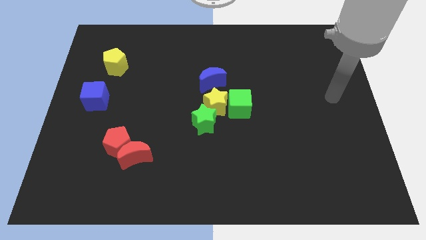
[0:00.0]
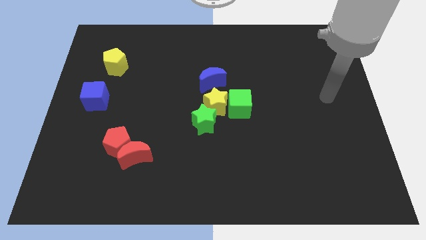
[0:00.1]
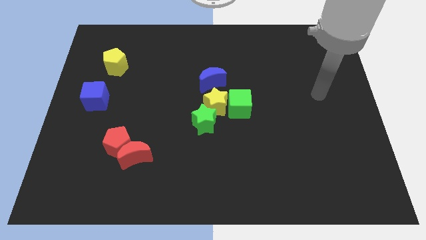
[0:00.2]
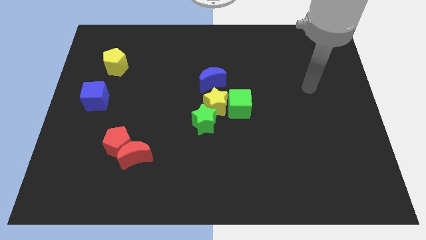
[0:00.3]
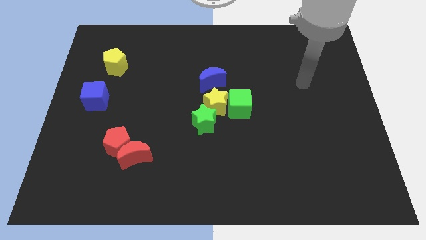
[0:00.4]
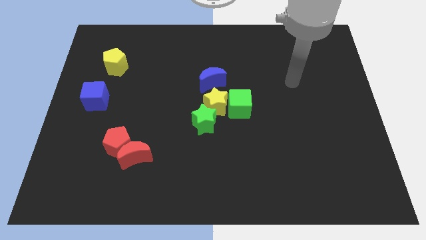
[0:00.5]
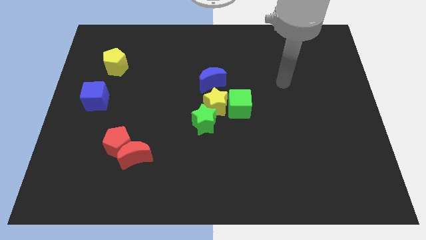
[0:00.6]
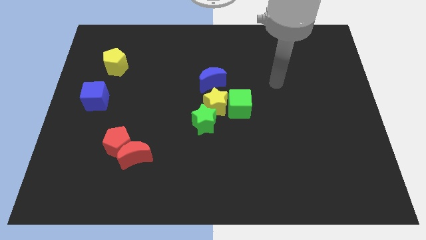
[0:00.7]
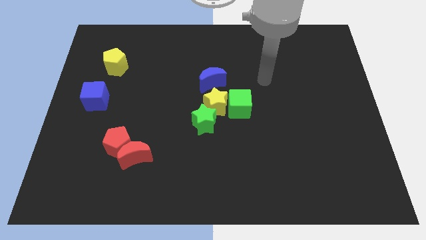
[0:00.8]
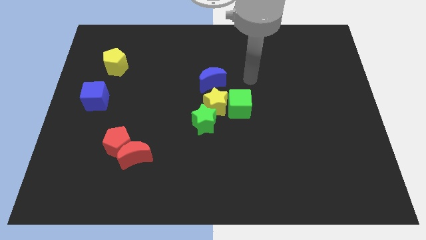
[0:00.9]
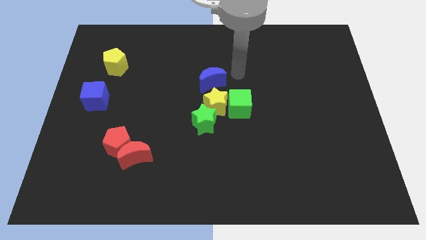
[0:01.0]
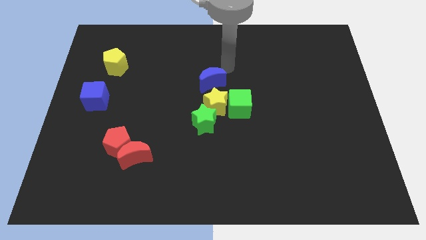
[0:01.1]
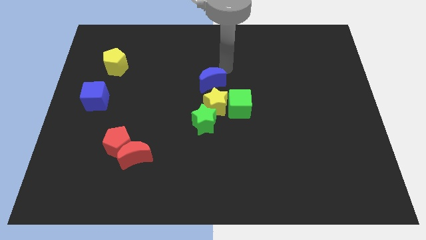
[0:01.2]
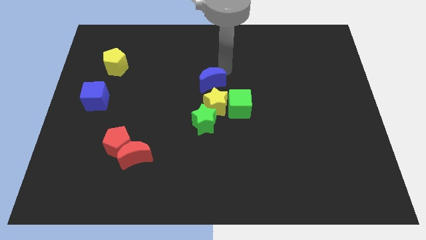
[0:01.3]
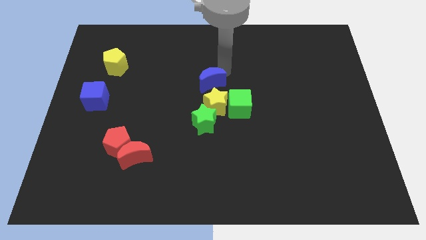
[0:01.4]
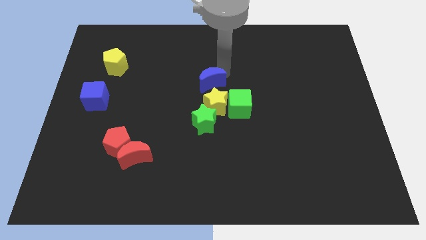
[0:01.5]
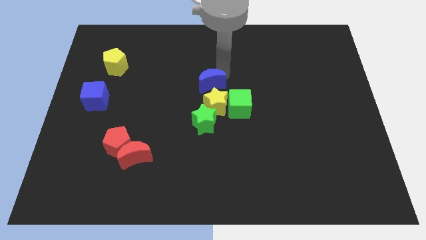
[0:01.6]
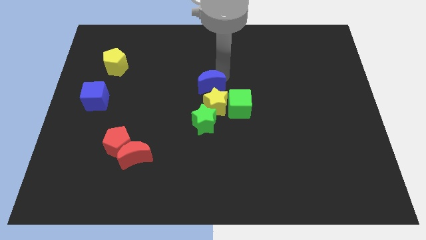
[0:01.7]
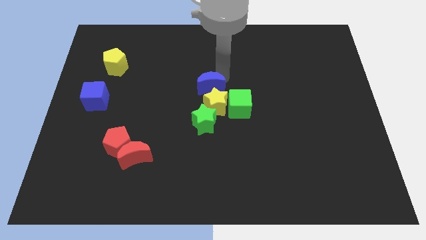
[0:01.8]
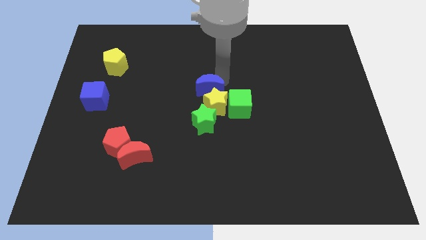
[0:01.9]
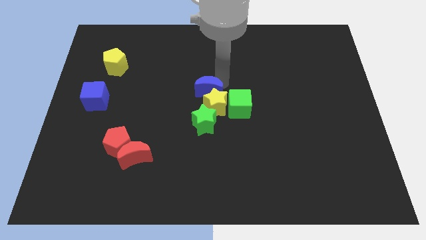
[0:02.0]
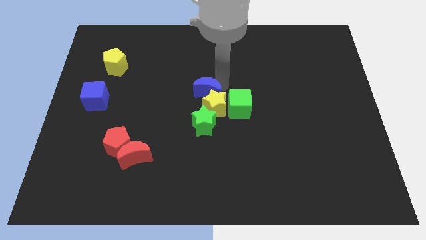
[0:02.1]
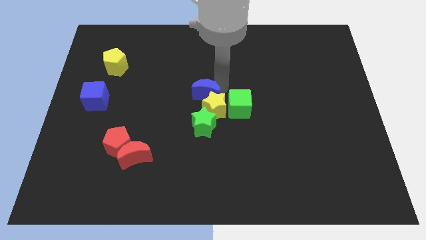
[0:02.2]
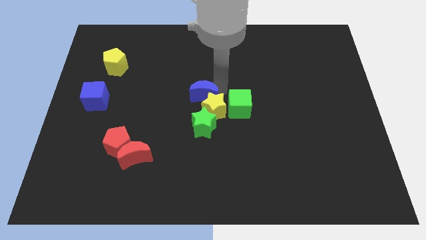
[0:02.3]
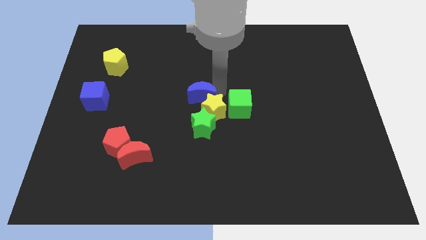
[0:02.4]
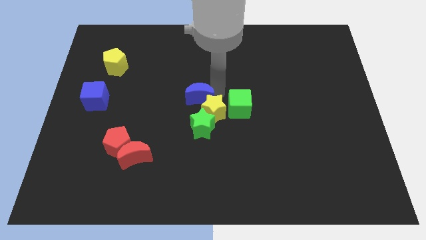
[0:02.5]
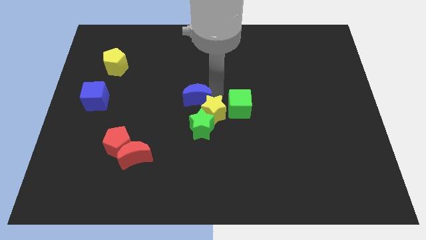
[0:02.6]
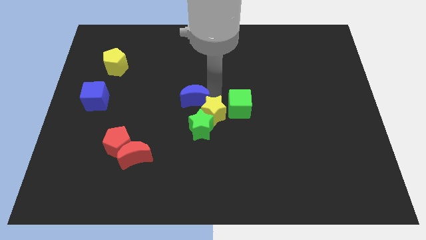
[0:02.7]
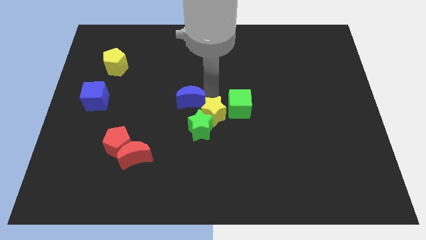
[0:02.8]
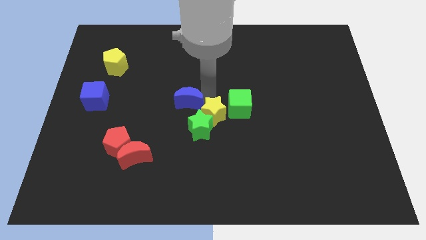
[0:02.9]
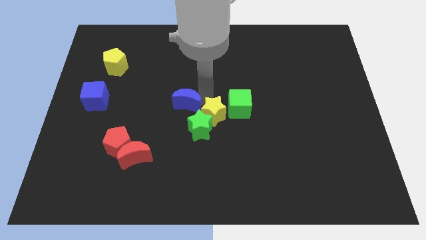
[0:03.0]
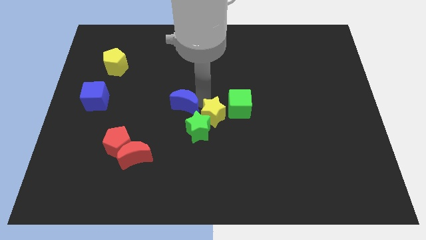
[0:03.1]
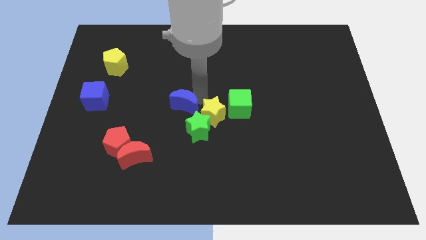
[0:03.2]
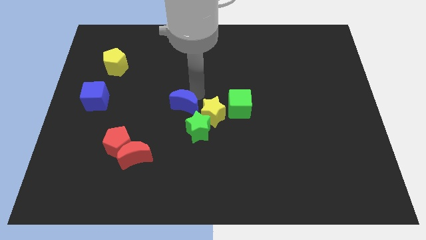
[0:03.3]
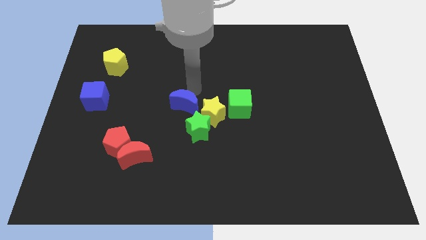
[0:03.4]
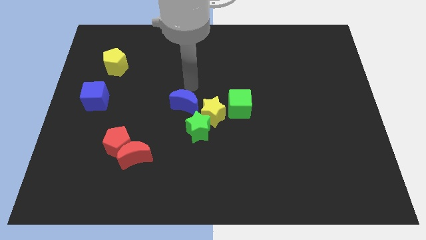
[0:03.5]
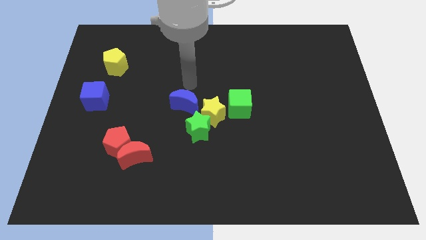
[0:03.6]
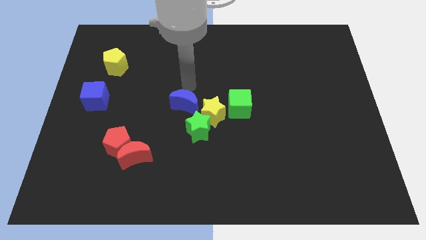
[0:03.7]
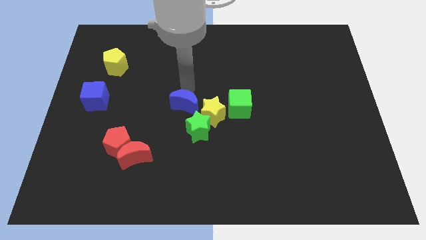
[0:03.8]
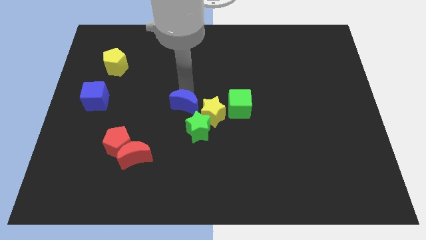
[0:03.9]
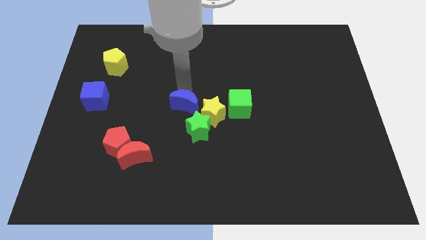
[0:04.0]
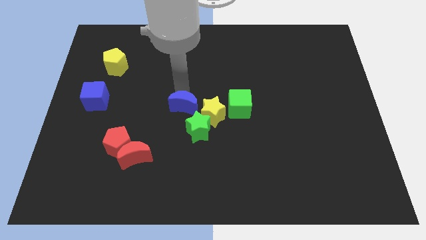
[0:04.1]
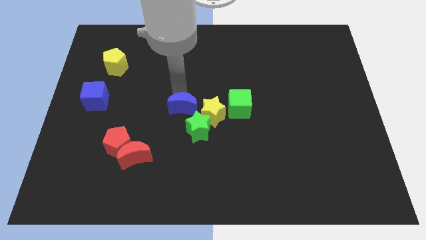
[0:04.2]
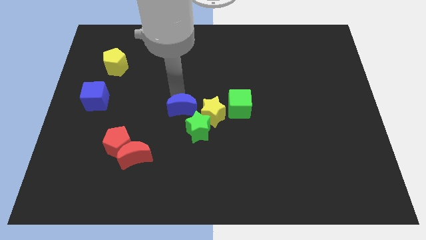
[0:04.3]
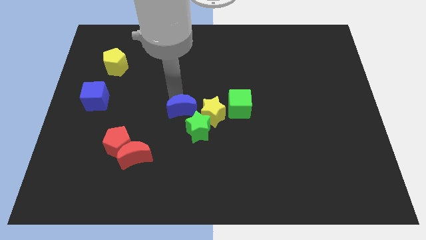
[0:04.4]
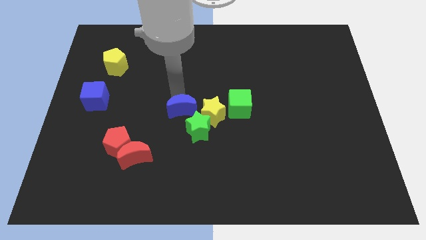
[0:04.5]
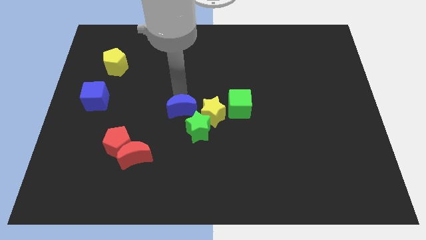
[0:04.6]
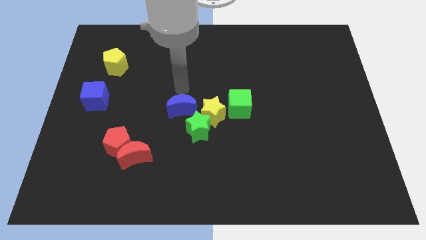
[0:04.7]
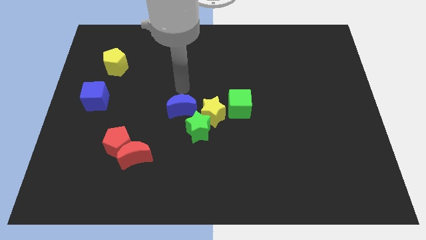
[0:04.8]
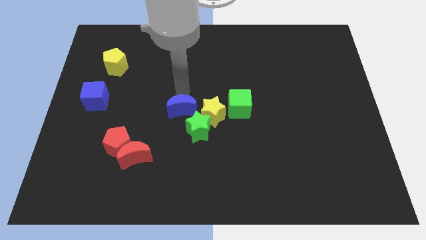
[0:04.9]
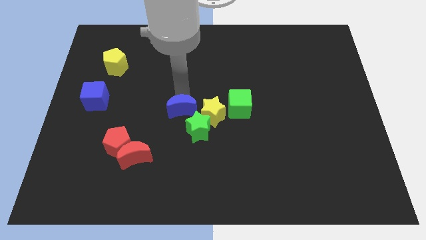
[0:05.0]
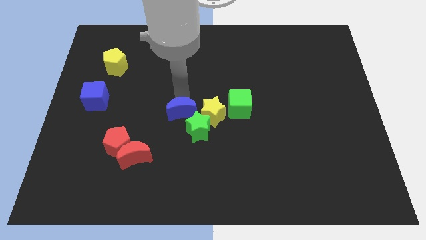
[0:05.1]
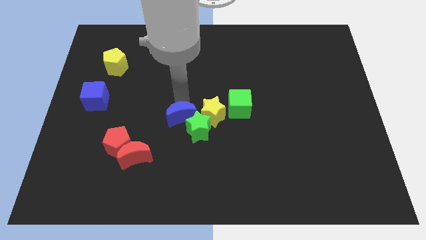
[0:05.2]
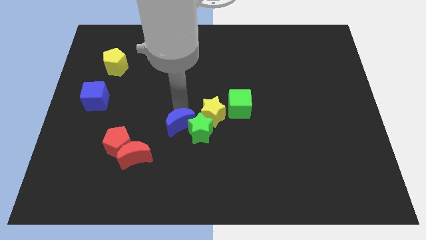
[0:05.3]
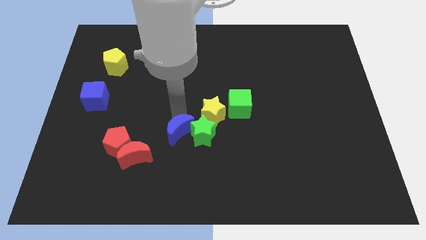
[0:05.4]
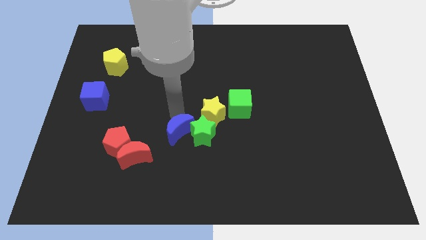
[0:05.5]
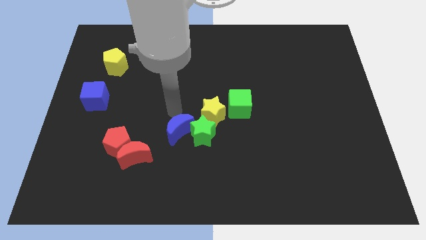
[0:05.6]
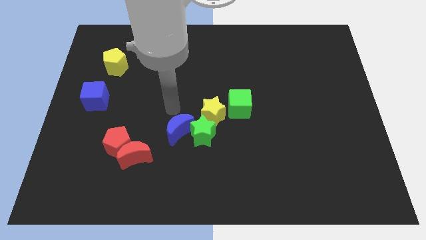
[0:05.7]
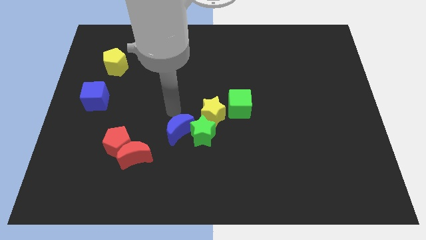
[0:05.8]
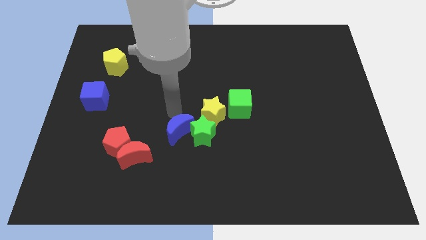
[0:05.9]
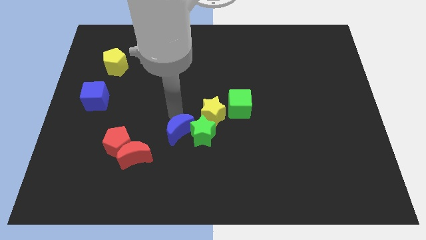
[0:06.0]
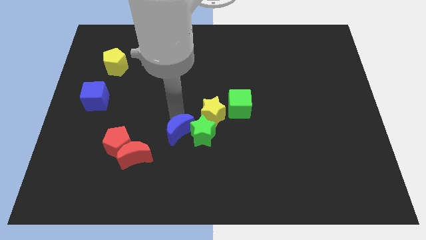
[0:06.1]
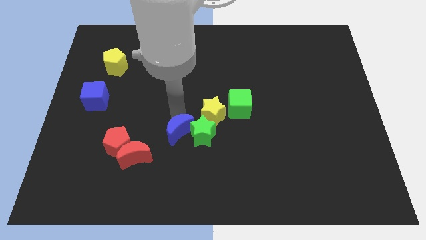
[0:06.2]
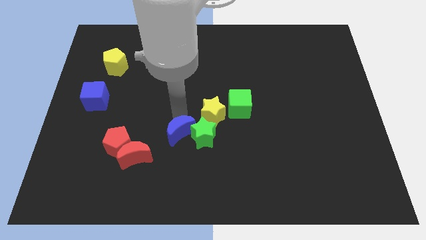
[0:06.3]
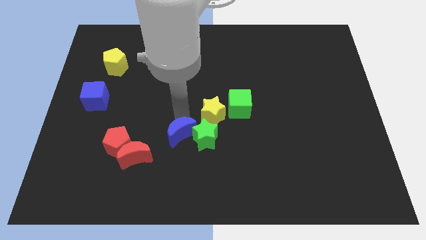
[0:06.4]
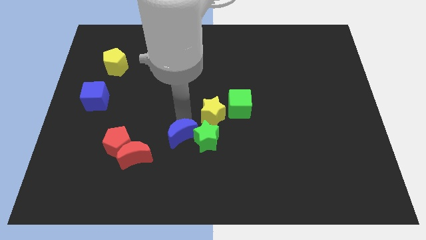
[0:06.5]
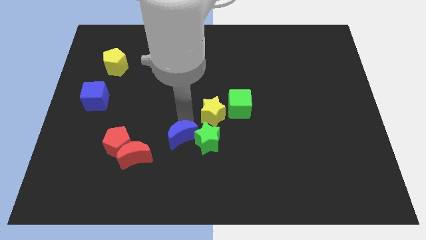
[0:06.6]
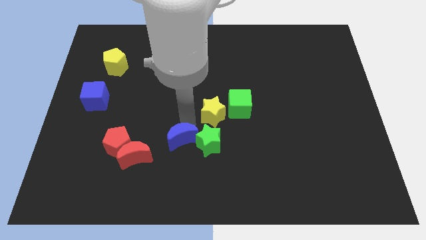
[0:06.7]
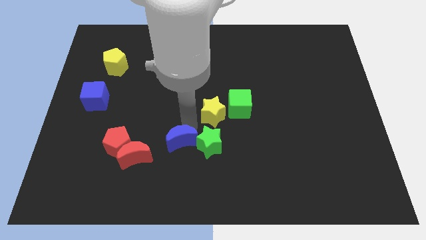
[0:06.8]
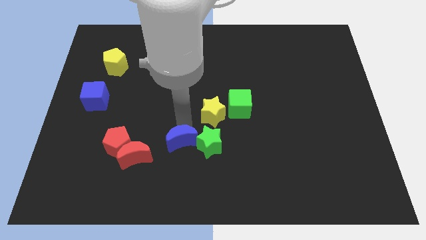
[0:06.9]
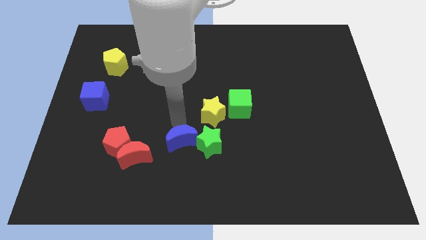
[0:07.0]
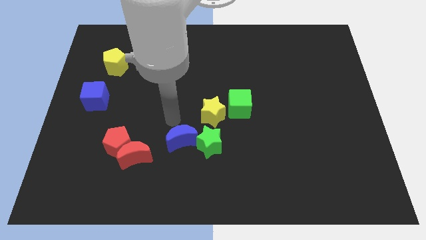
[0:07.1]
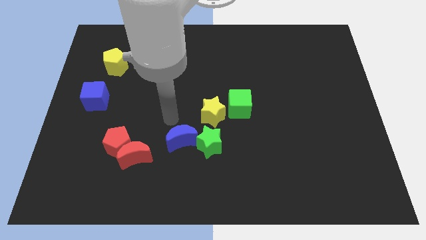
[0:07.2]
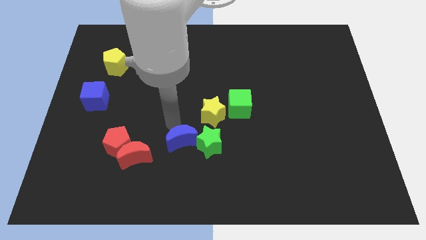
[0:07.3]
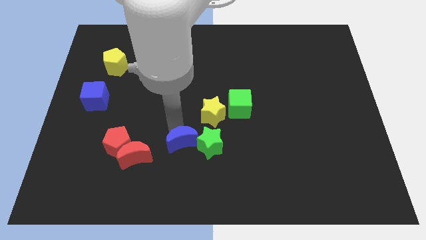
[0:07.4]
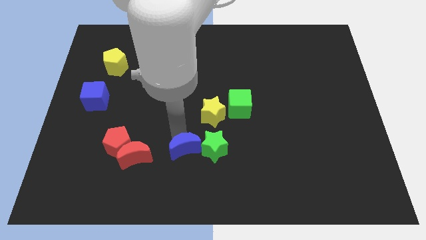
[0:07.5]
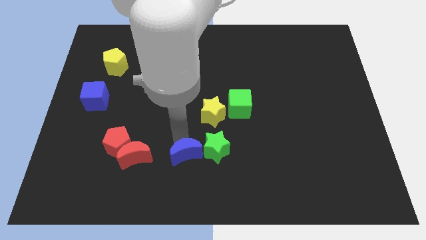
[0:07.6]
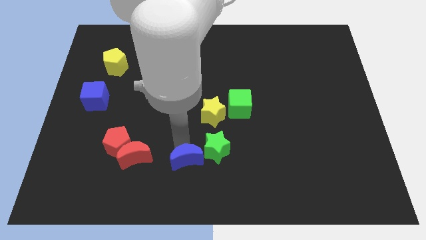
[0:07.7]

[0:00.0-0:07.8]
put the blue moon to the bottom side
